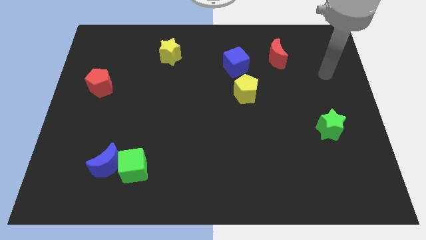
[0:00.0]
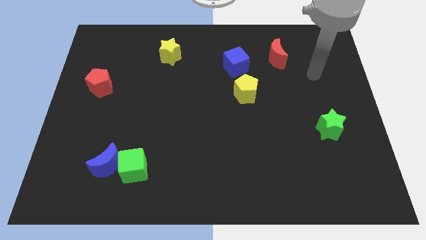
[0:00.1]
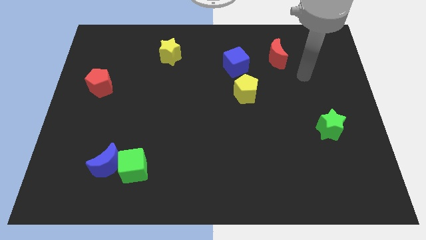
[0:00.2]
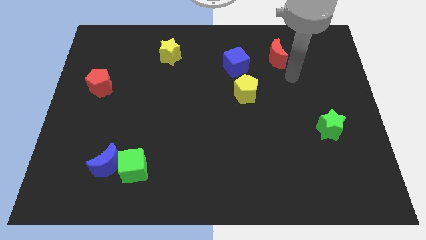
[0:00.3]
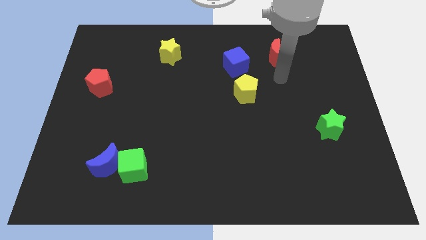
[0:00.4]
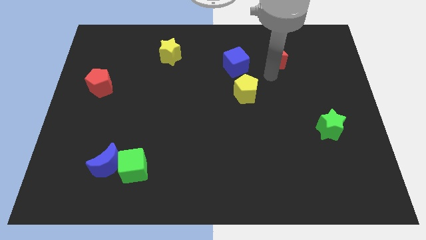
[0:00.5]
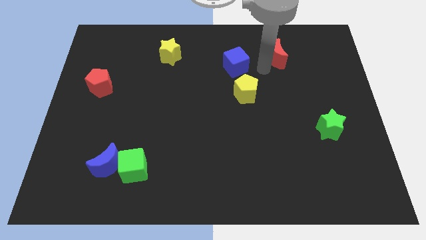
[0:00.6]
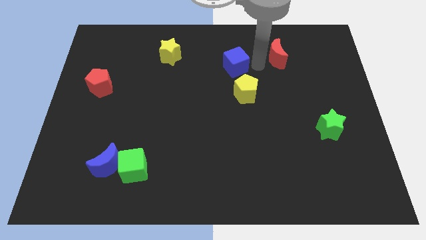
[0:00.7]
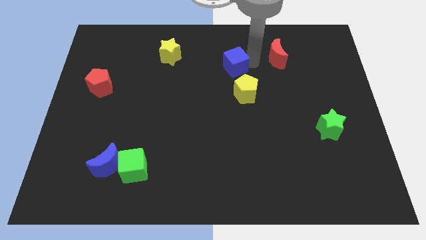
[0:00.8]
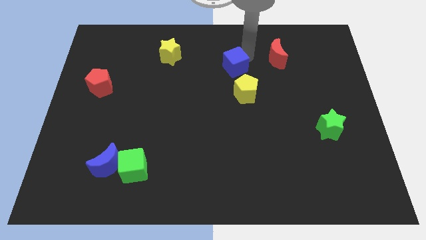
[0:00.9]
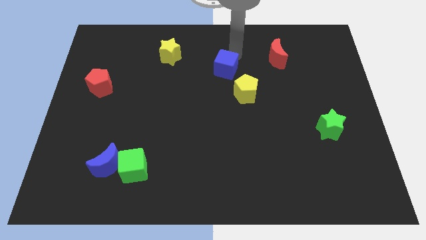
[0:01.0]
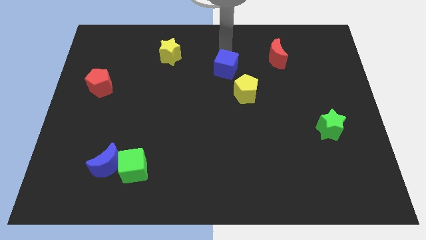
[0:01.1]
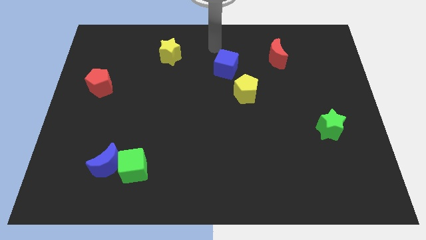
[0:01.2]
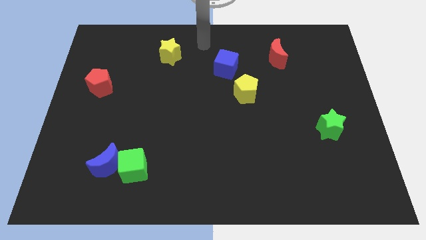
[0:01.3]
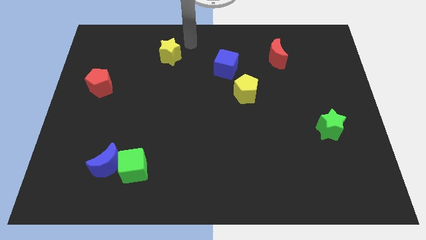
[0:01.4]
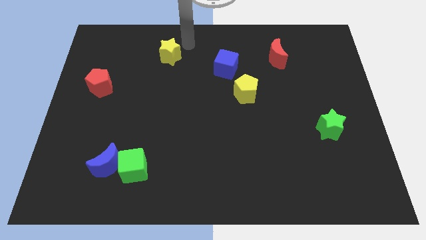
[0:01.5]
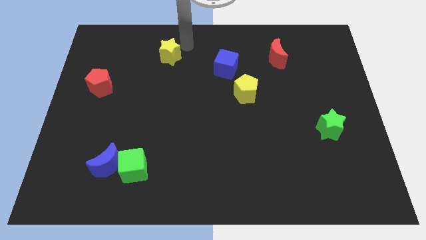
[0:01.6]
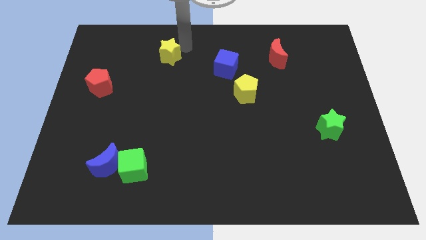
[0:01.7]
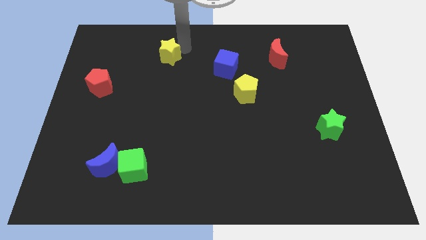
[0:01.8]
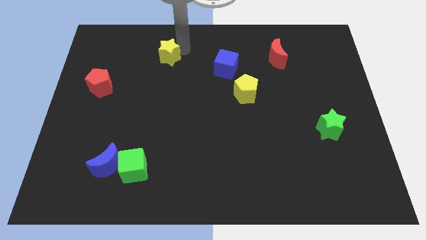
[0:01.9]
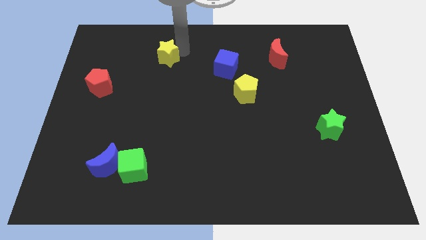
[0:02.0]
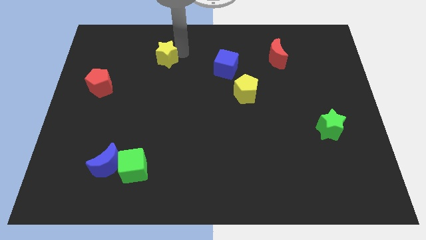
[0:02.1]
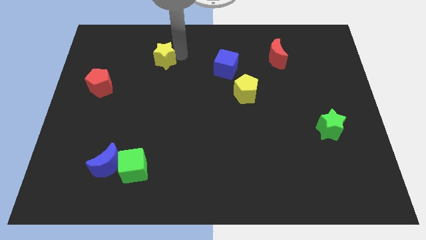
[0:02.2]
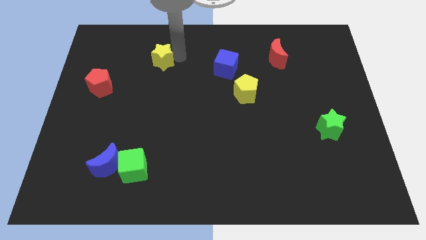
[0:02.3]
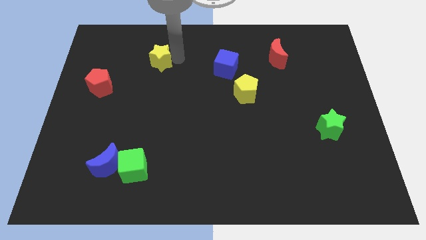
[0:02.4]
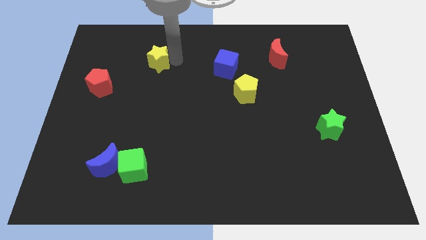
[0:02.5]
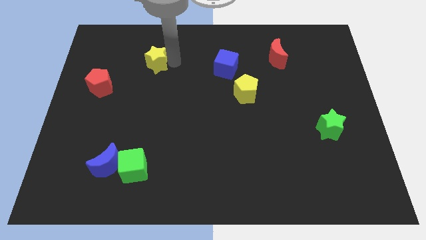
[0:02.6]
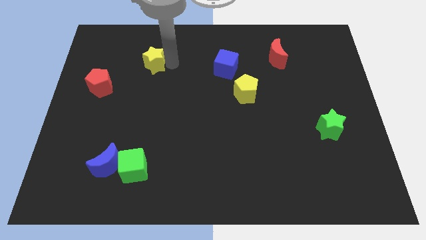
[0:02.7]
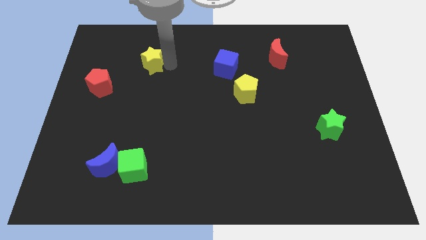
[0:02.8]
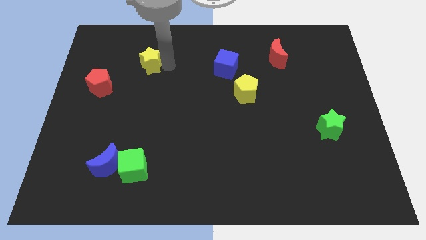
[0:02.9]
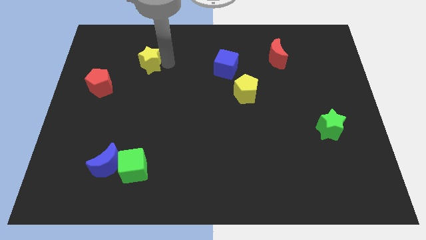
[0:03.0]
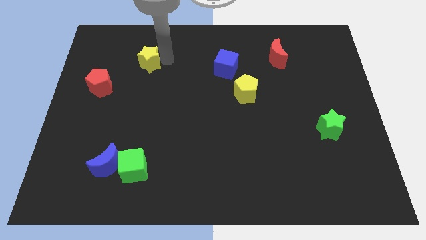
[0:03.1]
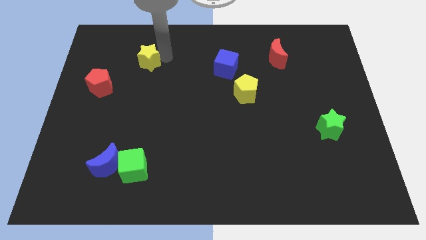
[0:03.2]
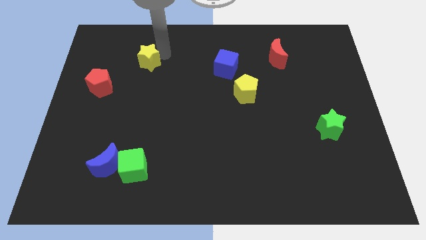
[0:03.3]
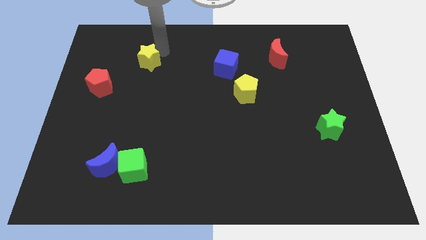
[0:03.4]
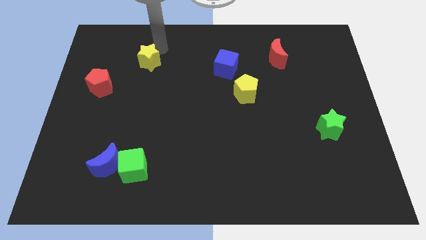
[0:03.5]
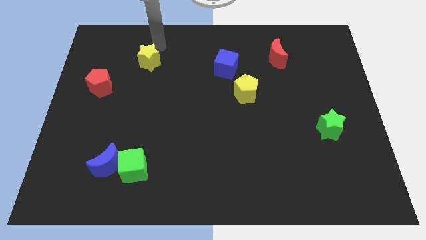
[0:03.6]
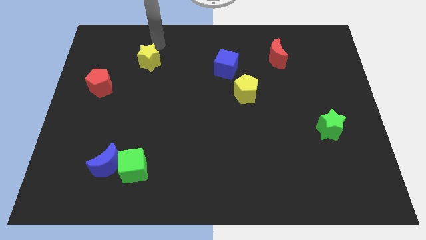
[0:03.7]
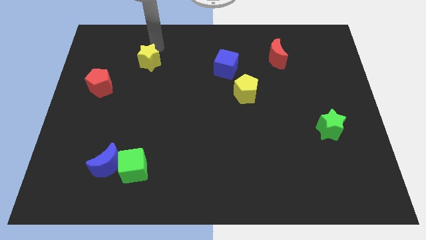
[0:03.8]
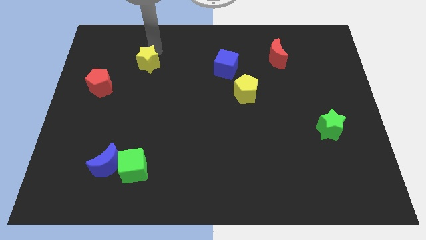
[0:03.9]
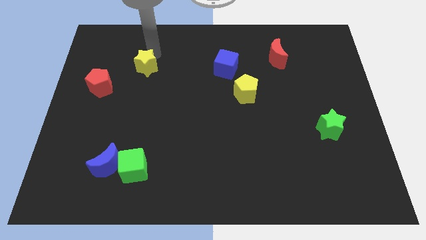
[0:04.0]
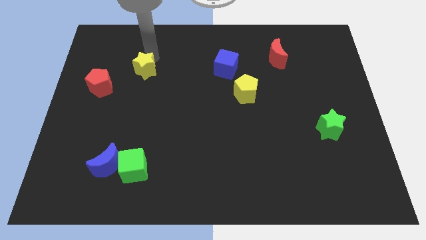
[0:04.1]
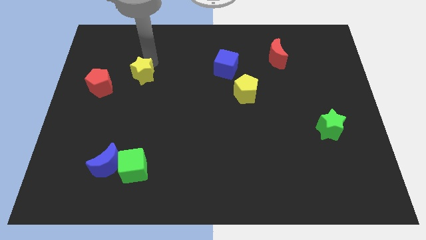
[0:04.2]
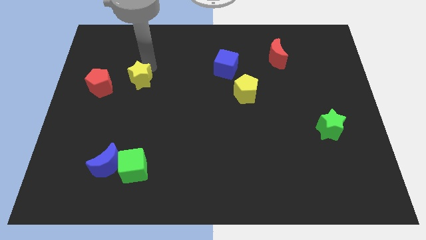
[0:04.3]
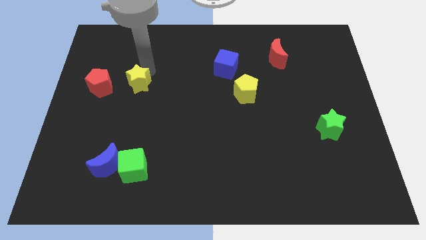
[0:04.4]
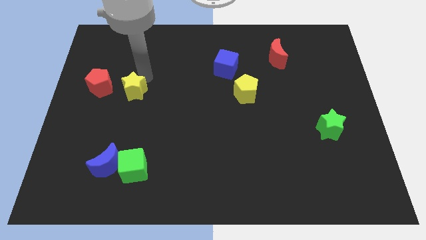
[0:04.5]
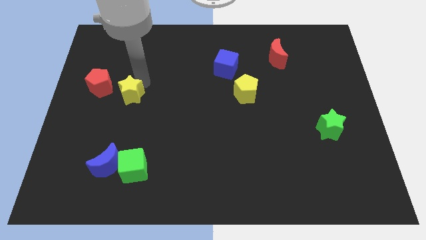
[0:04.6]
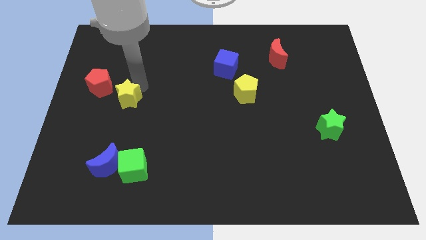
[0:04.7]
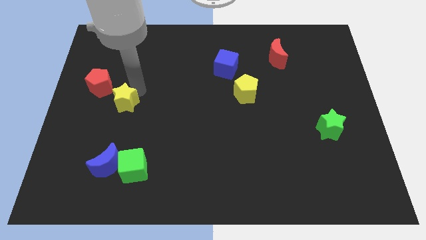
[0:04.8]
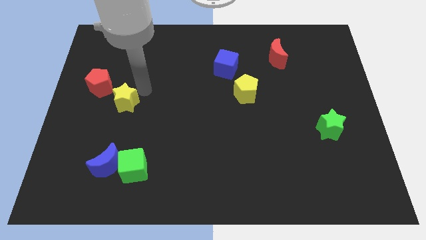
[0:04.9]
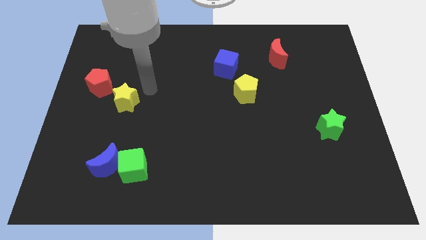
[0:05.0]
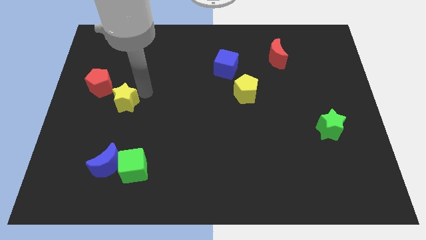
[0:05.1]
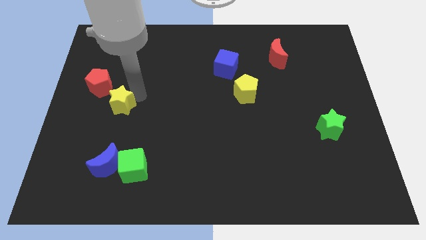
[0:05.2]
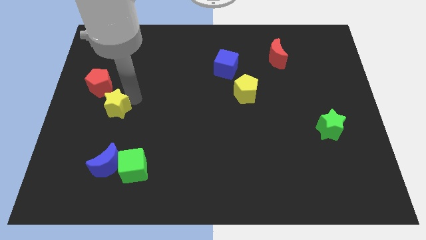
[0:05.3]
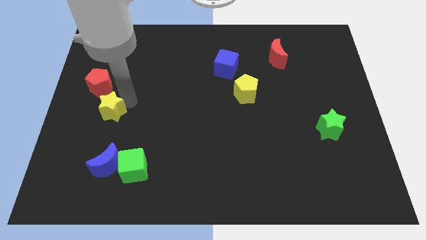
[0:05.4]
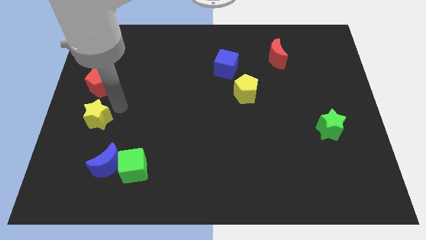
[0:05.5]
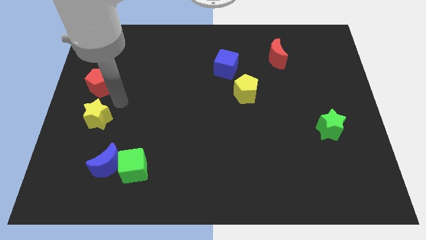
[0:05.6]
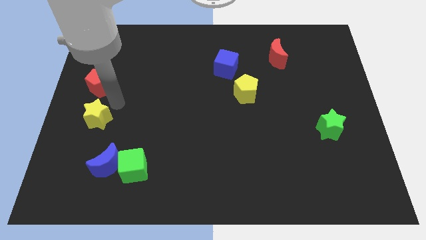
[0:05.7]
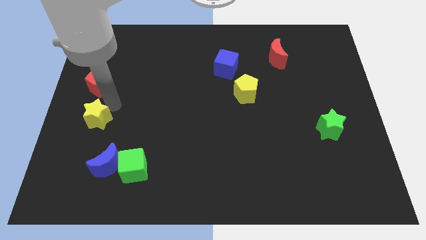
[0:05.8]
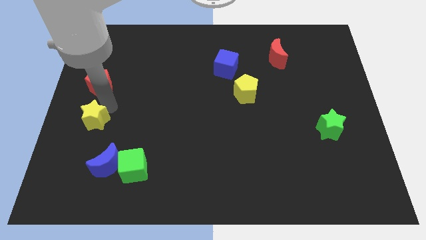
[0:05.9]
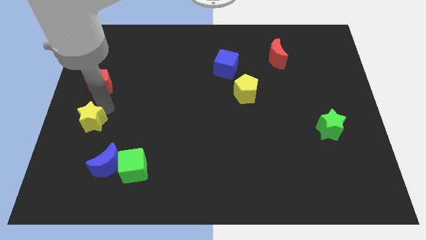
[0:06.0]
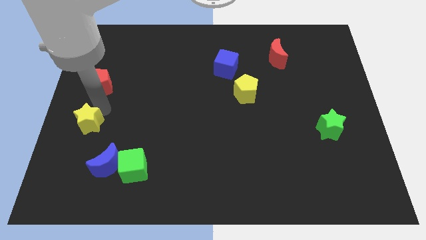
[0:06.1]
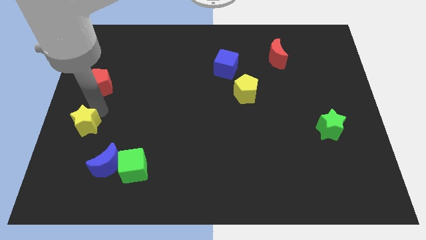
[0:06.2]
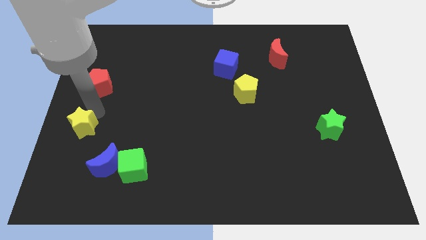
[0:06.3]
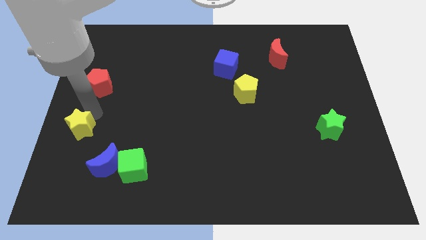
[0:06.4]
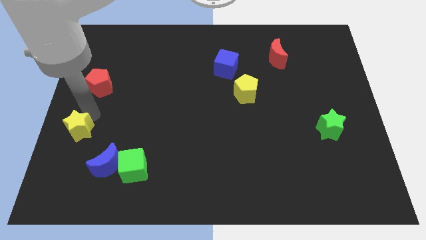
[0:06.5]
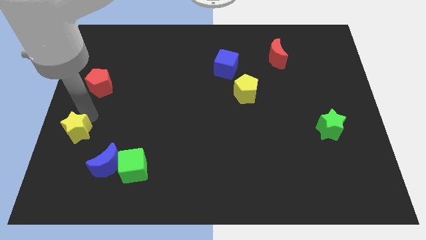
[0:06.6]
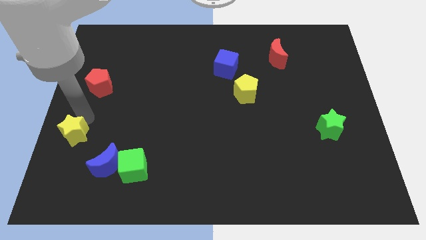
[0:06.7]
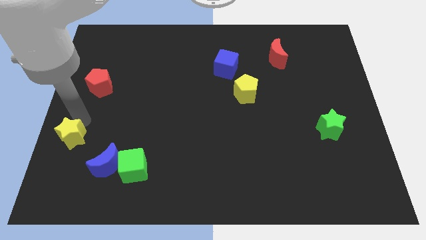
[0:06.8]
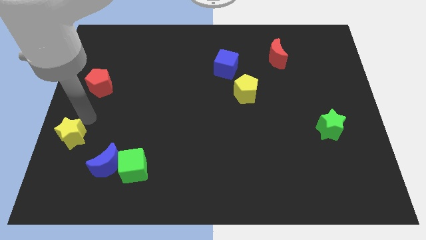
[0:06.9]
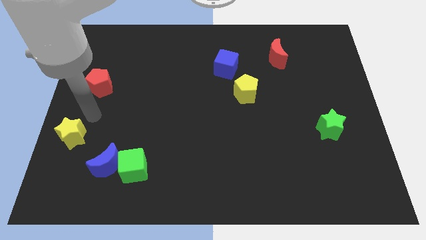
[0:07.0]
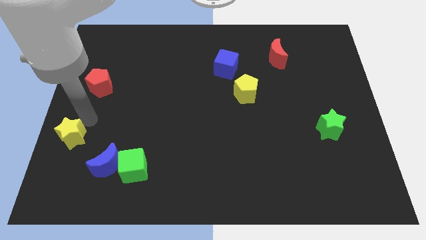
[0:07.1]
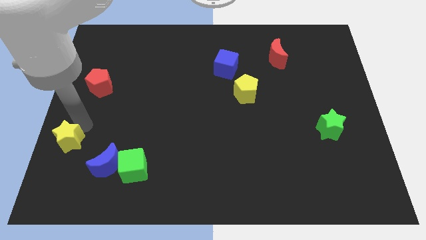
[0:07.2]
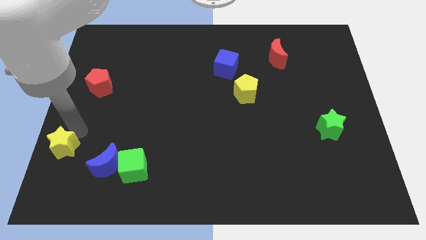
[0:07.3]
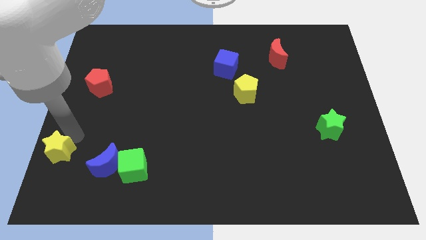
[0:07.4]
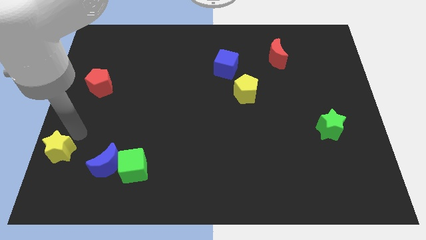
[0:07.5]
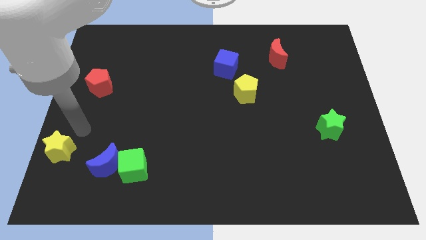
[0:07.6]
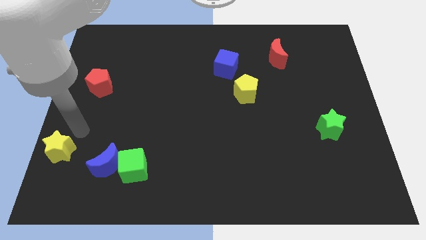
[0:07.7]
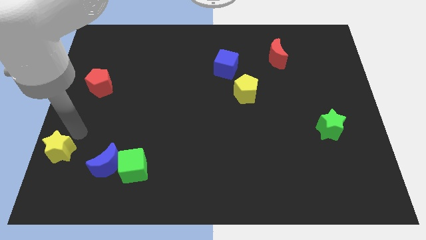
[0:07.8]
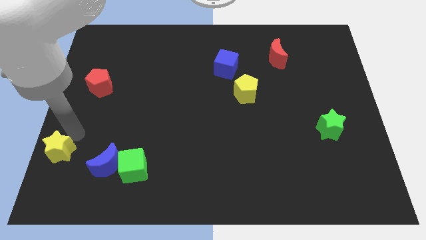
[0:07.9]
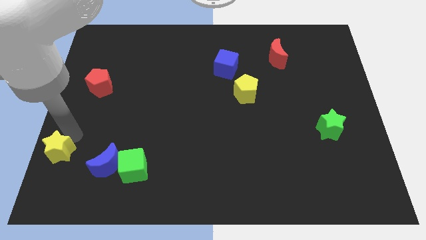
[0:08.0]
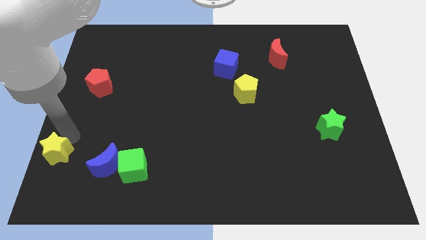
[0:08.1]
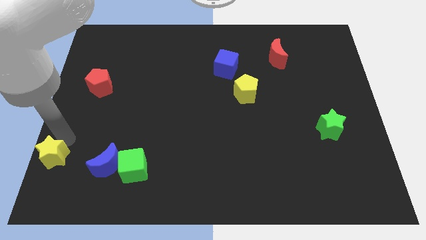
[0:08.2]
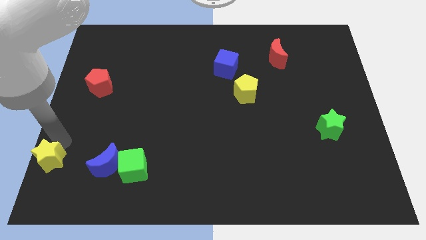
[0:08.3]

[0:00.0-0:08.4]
move the yellow star to the bottom left corner
